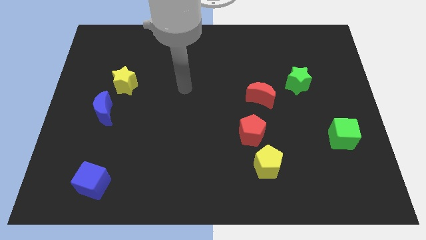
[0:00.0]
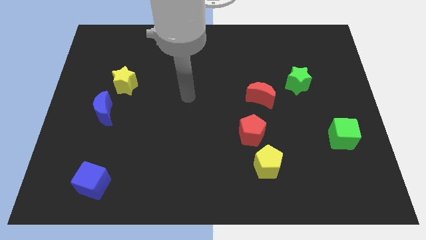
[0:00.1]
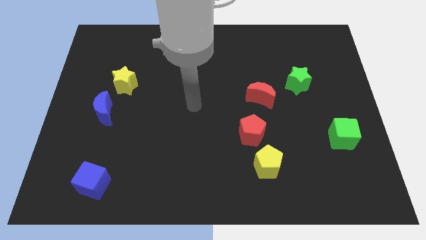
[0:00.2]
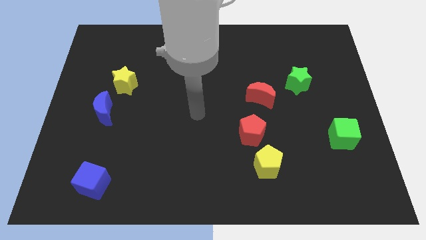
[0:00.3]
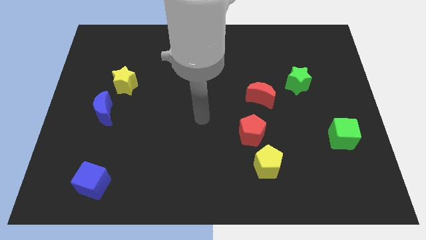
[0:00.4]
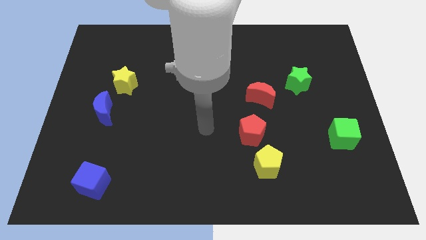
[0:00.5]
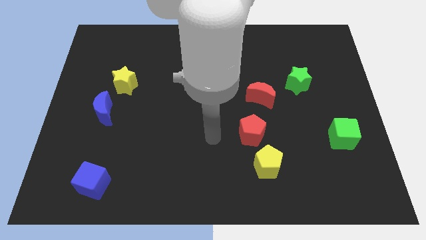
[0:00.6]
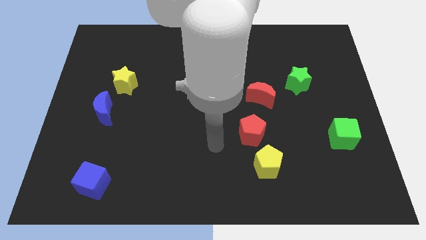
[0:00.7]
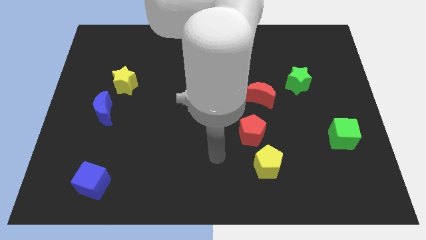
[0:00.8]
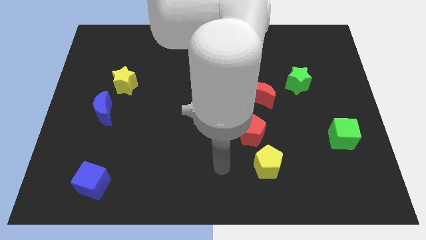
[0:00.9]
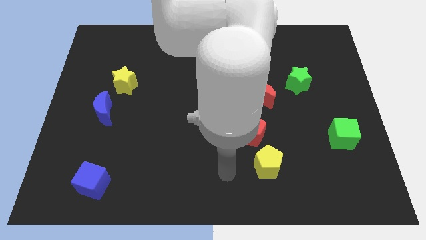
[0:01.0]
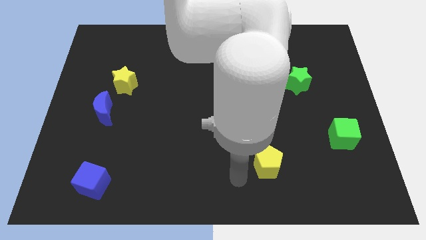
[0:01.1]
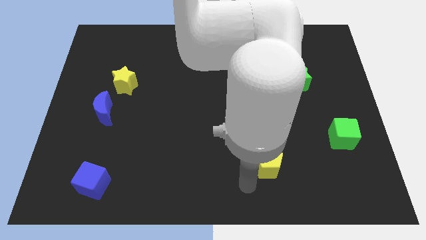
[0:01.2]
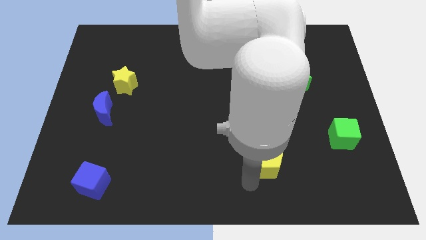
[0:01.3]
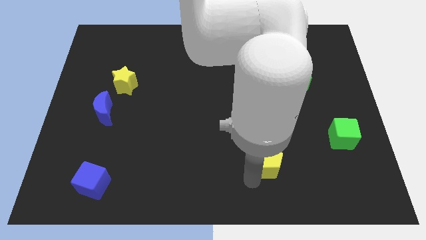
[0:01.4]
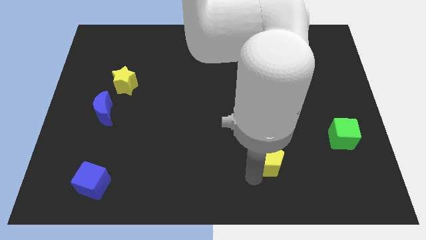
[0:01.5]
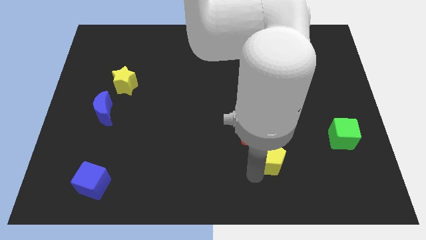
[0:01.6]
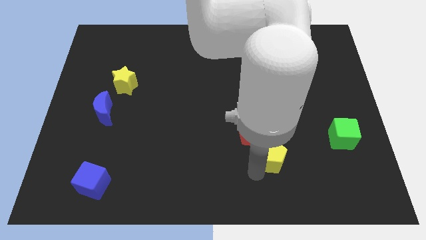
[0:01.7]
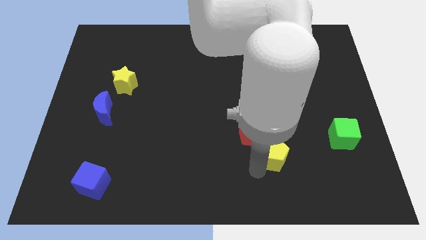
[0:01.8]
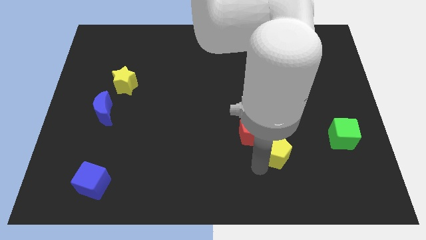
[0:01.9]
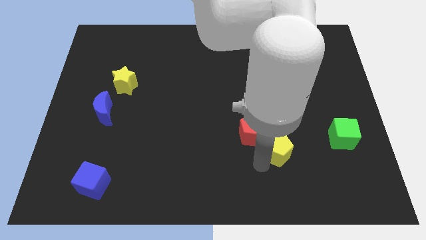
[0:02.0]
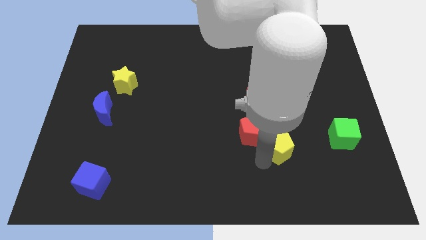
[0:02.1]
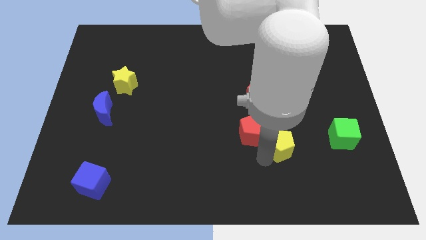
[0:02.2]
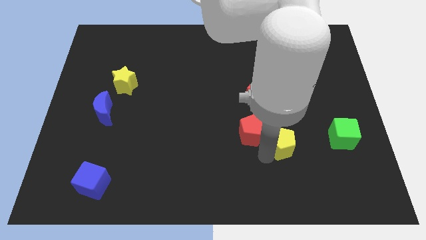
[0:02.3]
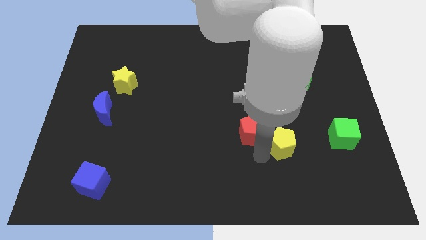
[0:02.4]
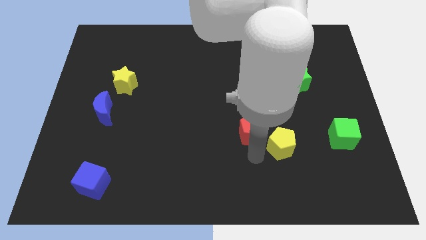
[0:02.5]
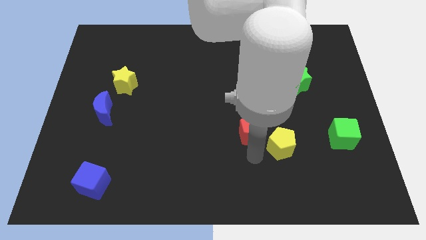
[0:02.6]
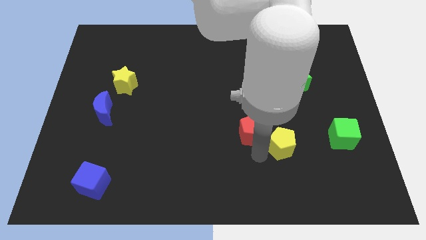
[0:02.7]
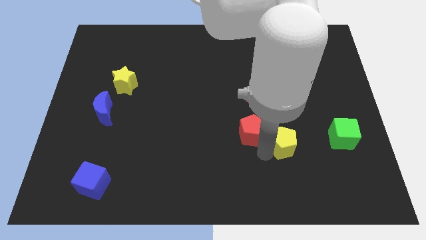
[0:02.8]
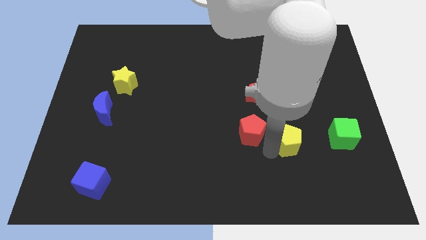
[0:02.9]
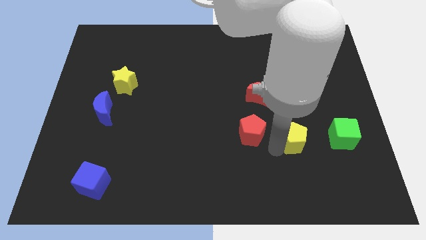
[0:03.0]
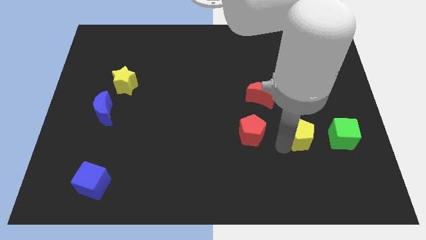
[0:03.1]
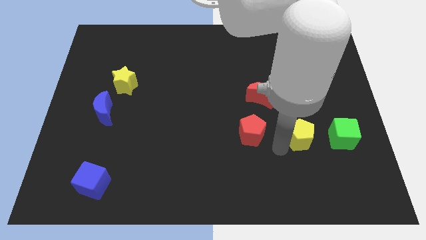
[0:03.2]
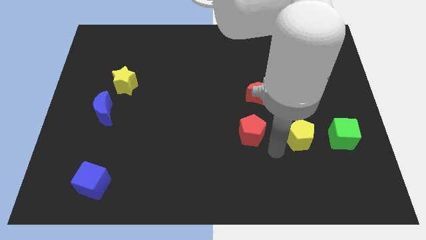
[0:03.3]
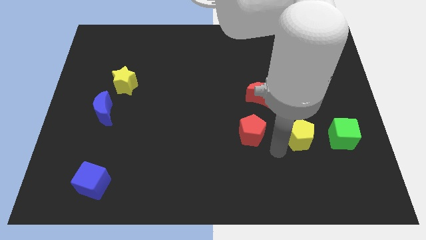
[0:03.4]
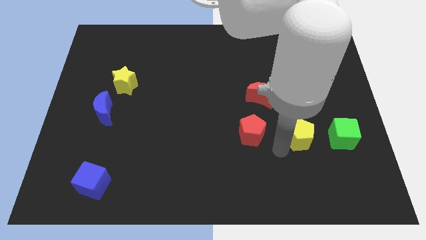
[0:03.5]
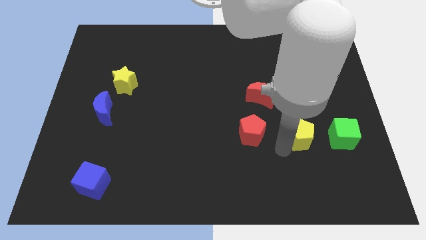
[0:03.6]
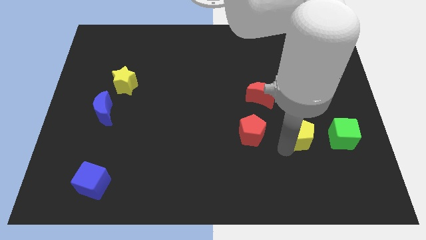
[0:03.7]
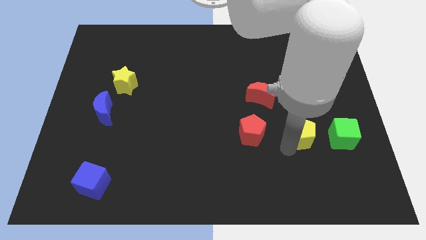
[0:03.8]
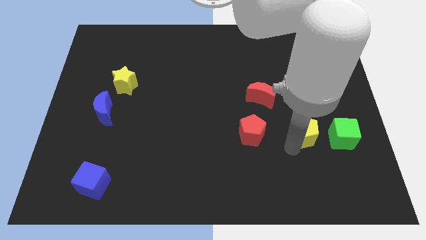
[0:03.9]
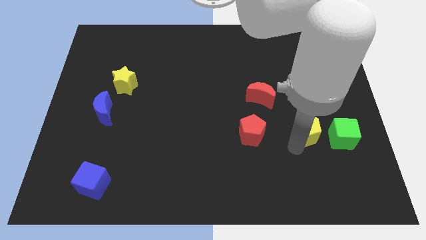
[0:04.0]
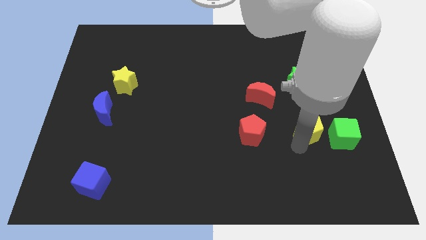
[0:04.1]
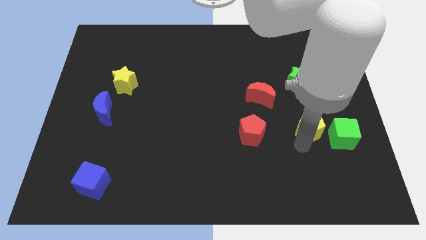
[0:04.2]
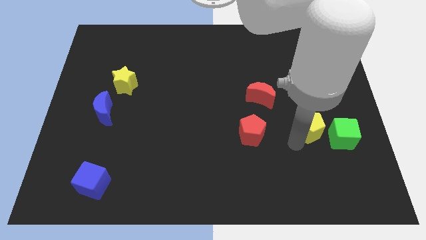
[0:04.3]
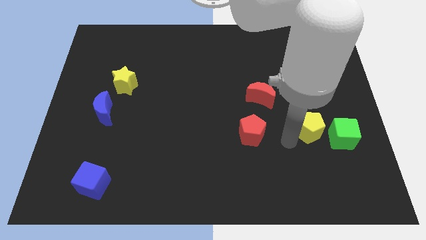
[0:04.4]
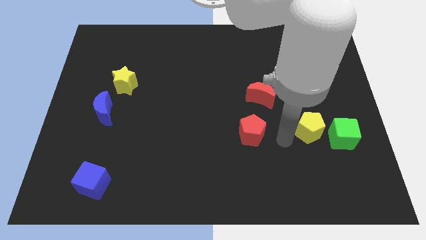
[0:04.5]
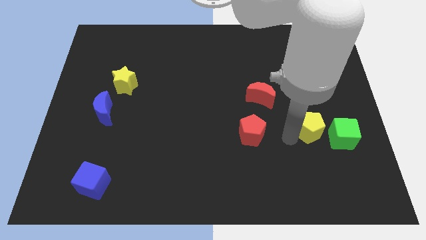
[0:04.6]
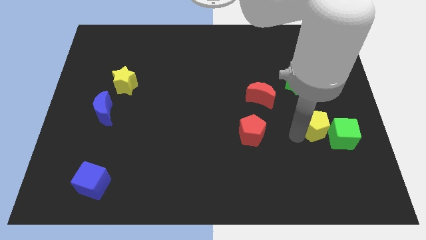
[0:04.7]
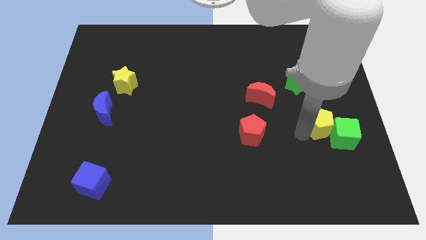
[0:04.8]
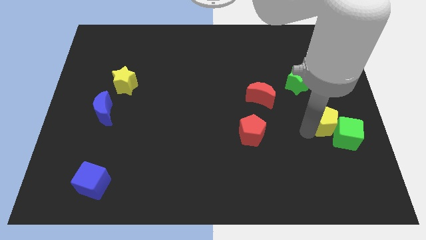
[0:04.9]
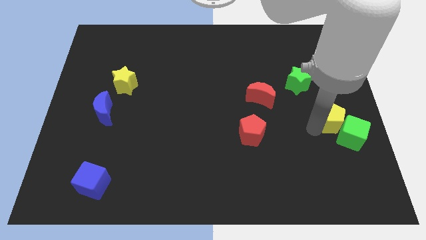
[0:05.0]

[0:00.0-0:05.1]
move the yellow pentagon to the right side of the board

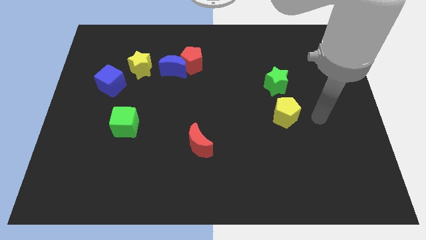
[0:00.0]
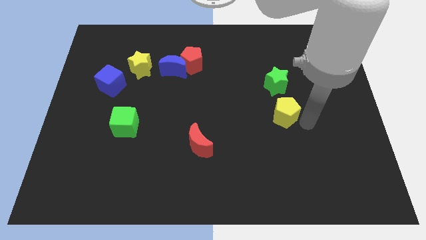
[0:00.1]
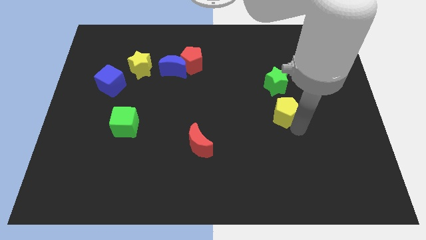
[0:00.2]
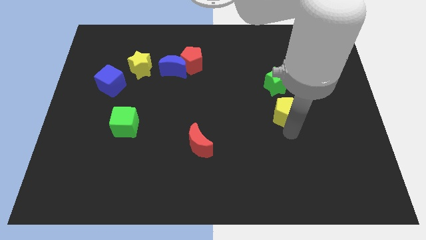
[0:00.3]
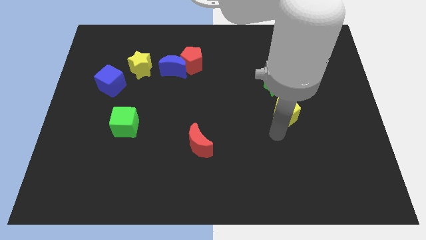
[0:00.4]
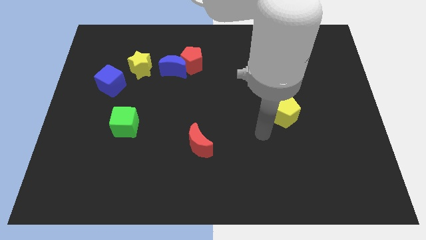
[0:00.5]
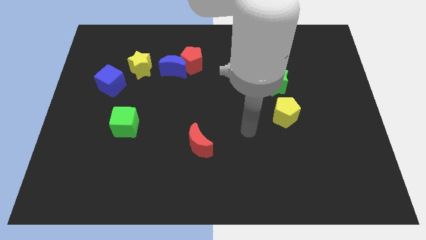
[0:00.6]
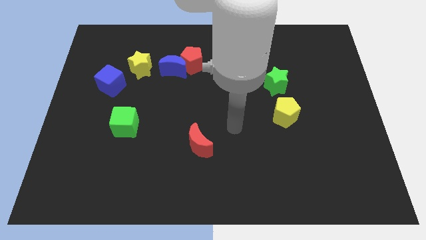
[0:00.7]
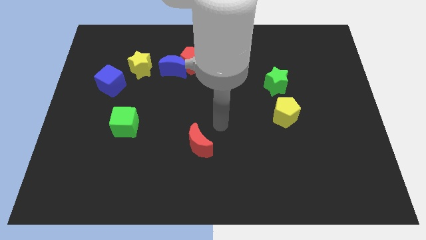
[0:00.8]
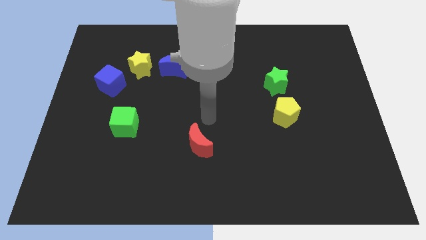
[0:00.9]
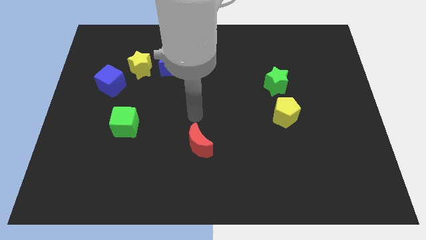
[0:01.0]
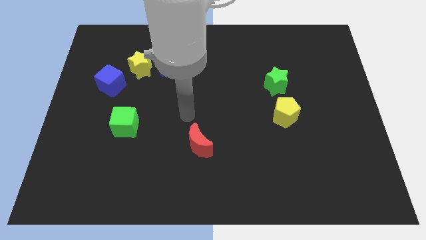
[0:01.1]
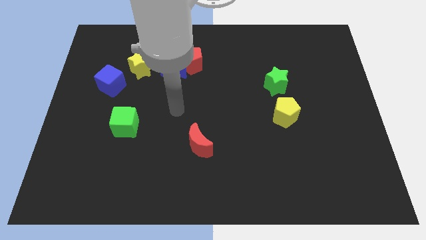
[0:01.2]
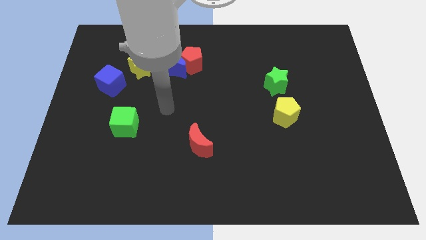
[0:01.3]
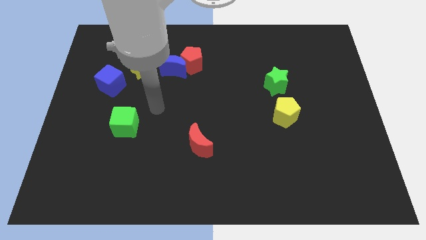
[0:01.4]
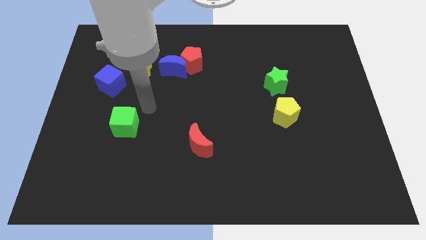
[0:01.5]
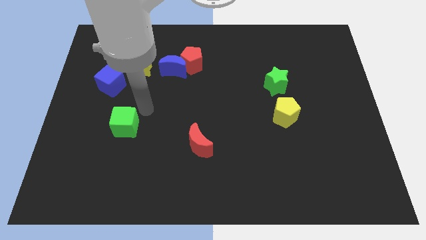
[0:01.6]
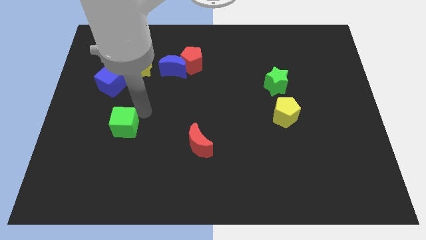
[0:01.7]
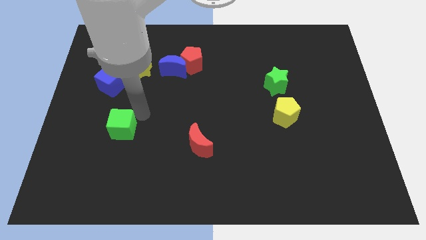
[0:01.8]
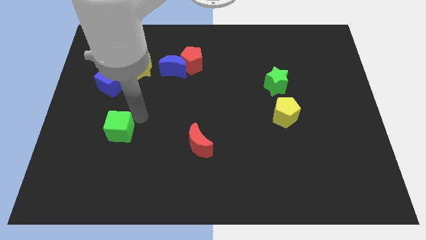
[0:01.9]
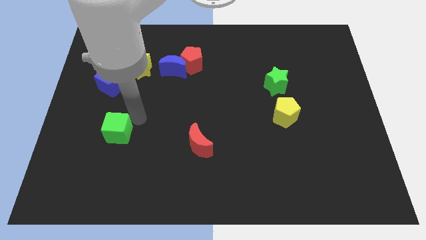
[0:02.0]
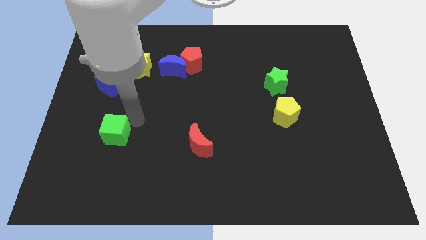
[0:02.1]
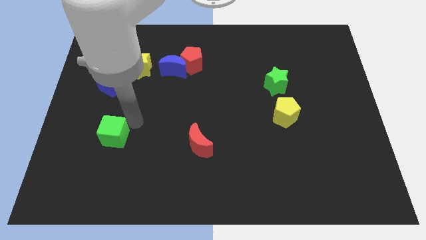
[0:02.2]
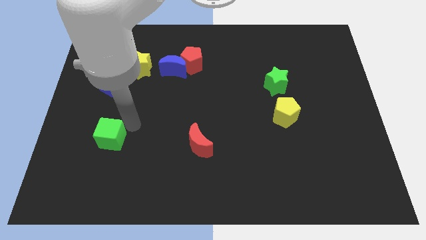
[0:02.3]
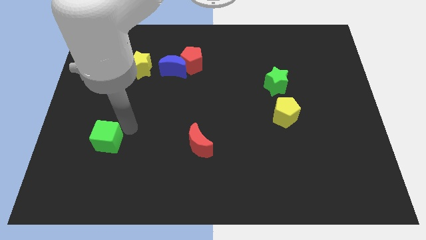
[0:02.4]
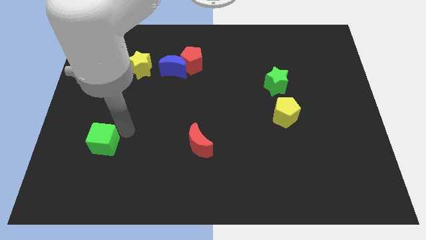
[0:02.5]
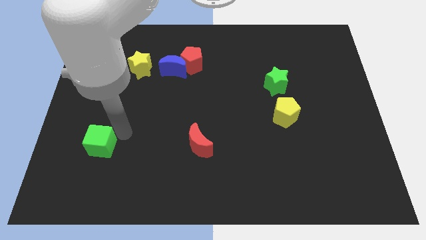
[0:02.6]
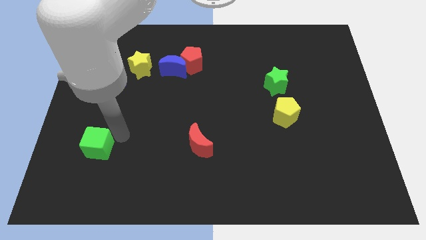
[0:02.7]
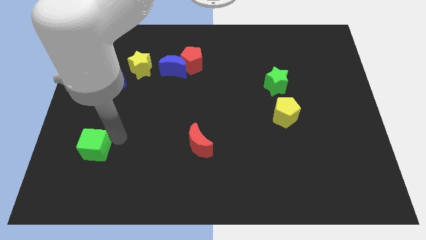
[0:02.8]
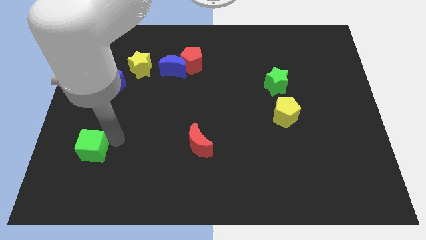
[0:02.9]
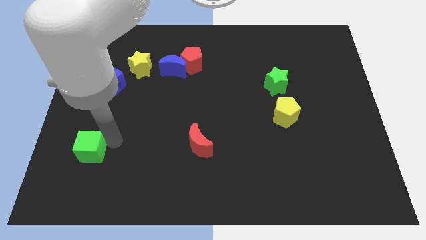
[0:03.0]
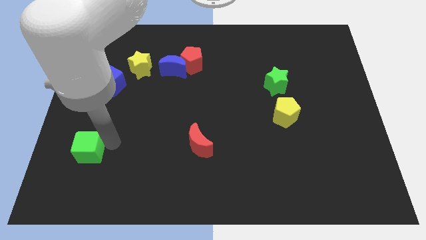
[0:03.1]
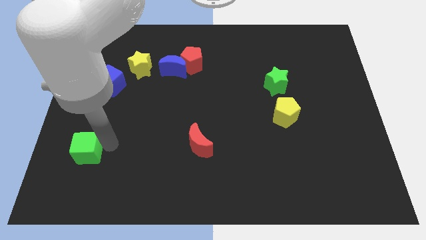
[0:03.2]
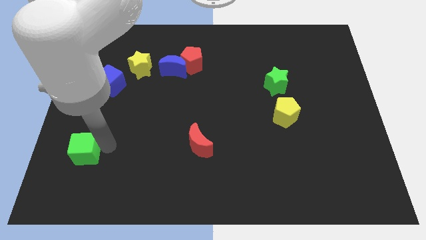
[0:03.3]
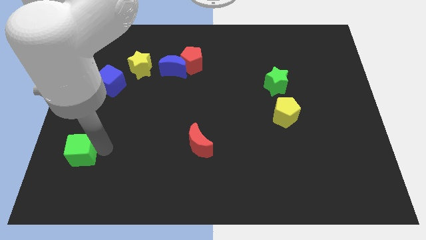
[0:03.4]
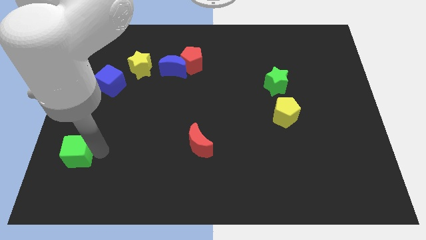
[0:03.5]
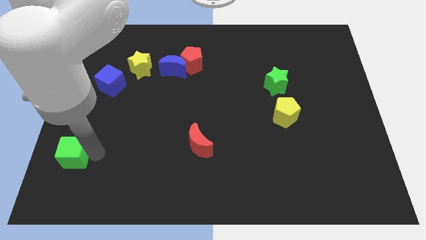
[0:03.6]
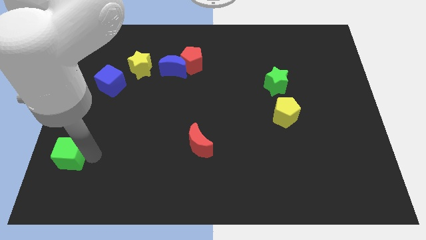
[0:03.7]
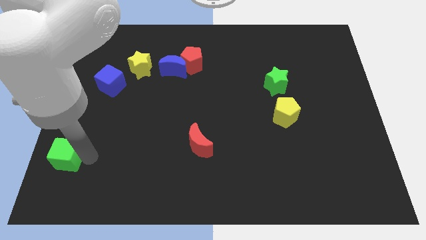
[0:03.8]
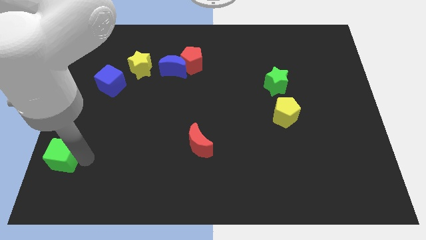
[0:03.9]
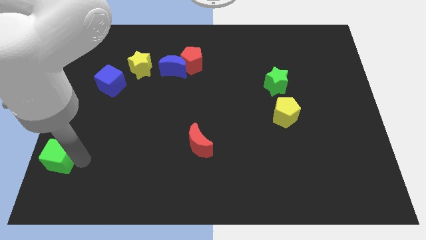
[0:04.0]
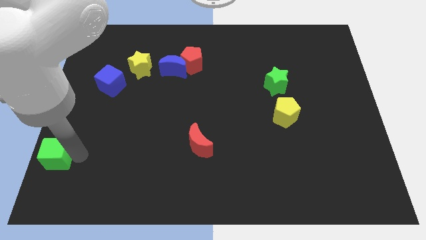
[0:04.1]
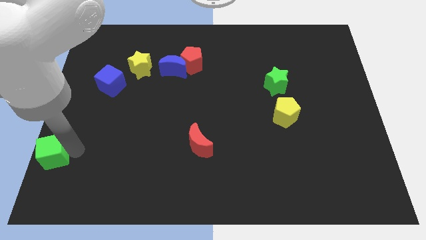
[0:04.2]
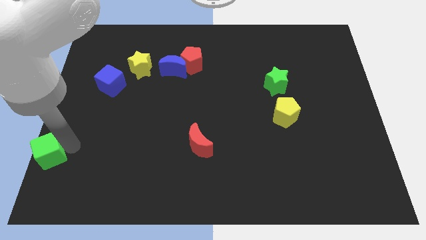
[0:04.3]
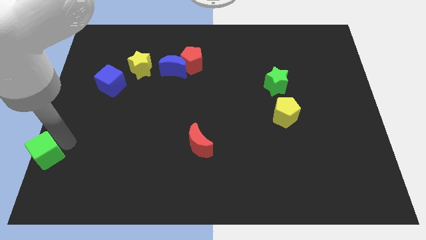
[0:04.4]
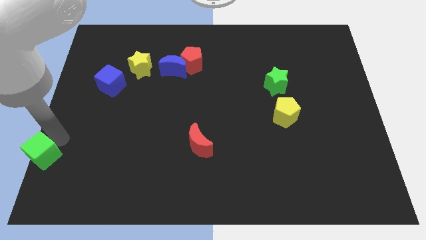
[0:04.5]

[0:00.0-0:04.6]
move the green cube to the bottom left of the board
